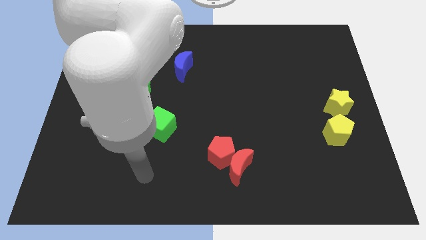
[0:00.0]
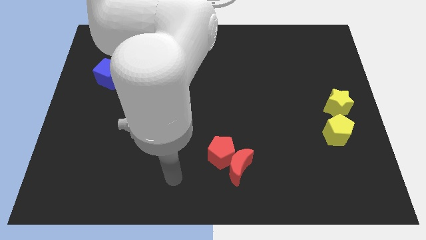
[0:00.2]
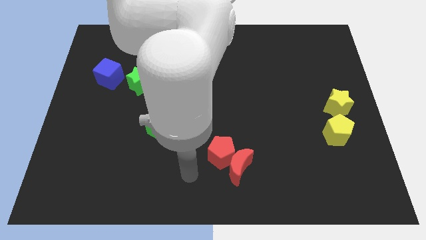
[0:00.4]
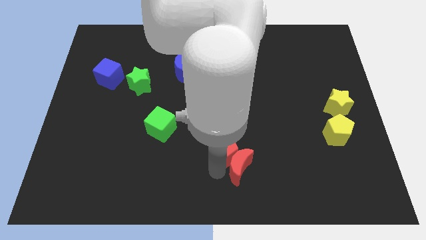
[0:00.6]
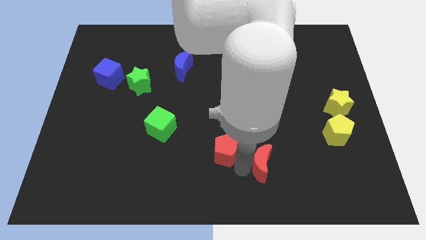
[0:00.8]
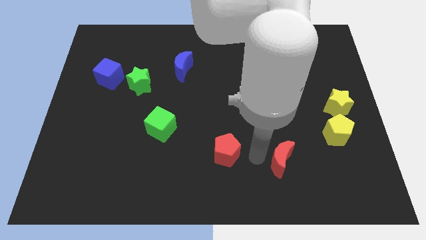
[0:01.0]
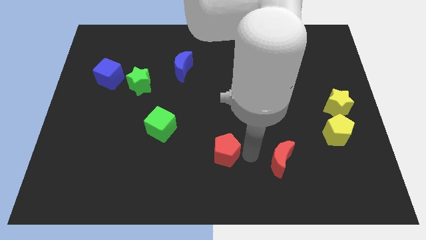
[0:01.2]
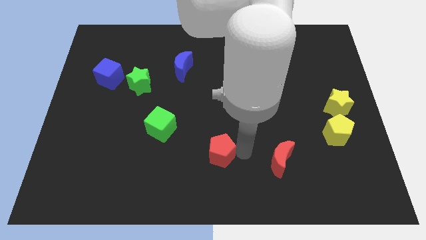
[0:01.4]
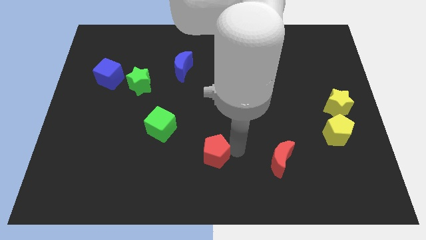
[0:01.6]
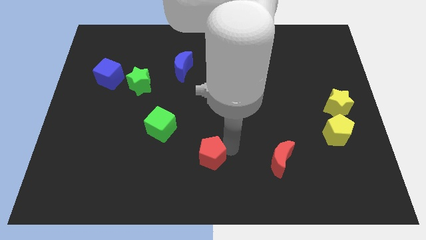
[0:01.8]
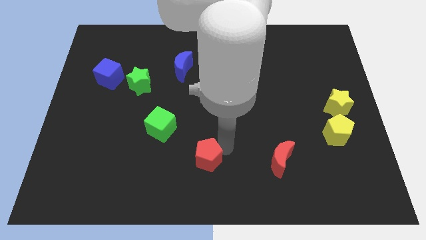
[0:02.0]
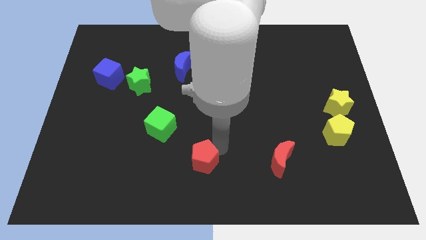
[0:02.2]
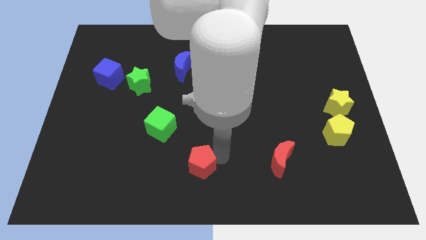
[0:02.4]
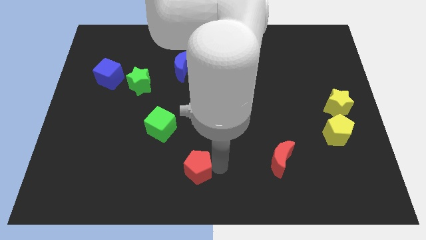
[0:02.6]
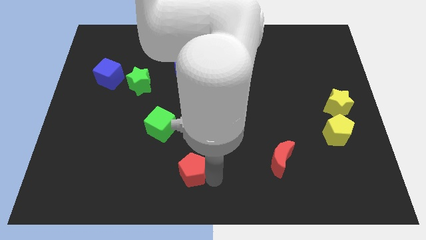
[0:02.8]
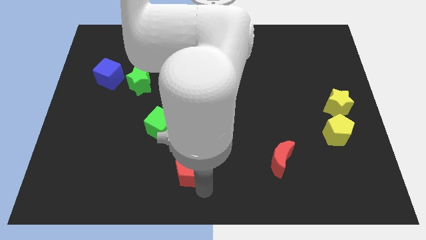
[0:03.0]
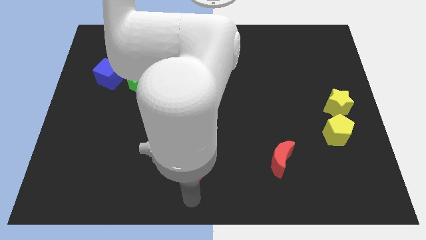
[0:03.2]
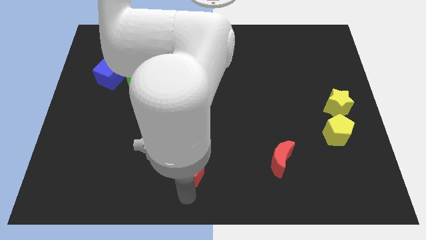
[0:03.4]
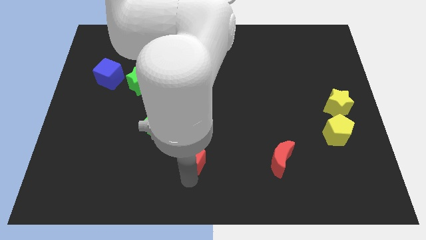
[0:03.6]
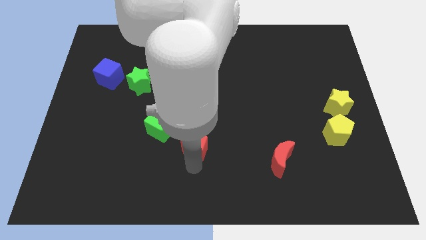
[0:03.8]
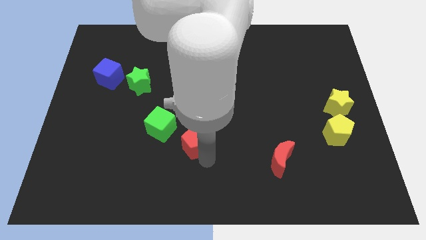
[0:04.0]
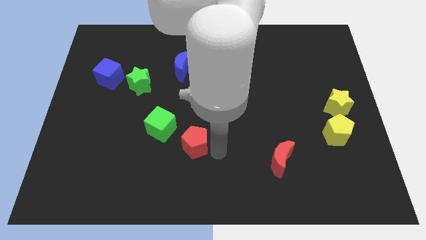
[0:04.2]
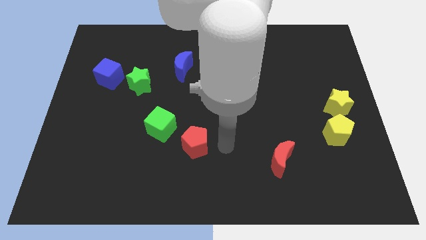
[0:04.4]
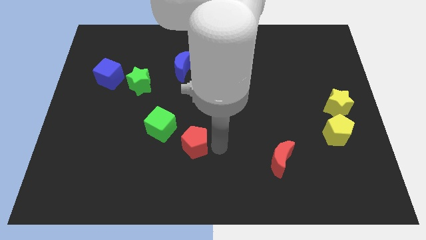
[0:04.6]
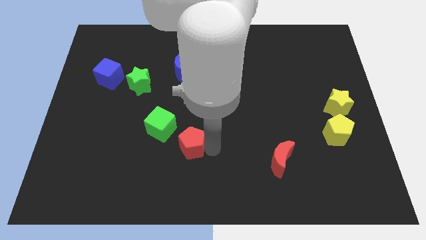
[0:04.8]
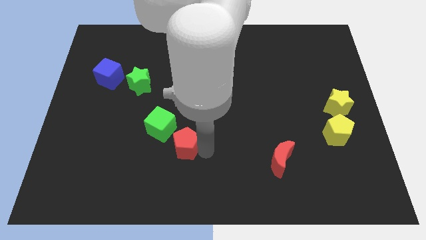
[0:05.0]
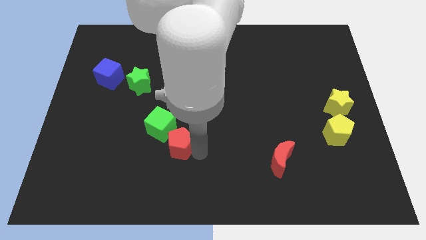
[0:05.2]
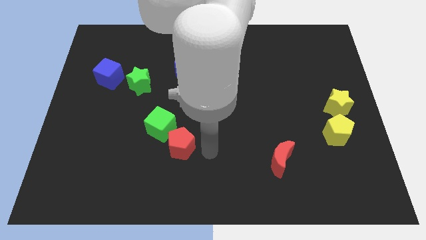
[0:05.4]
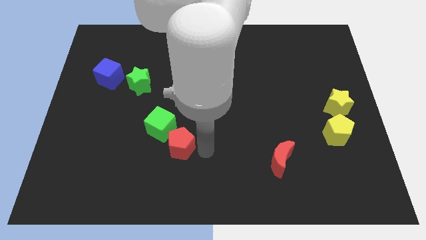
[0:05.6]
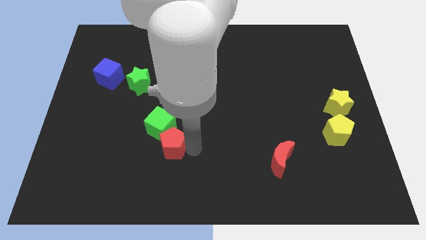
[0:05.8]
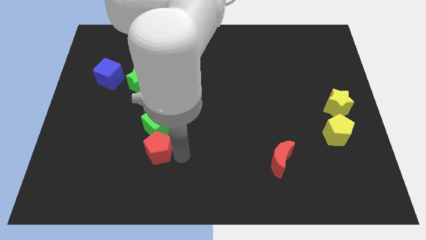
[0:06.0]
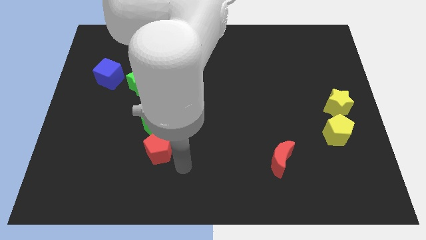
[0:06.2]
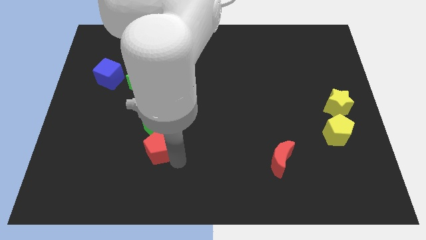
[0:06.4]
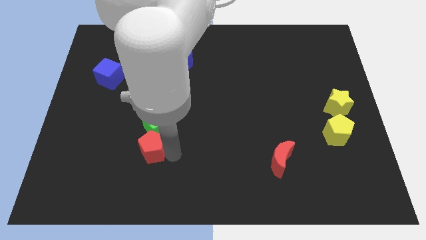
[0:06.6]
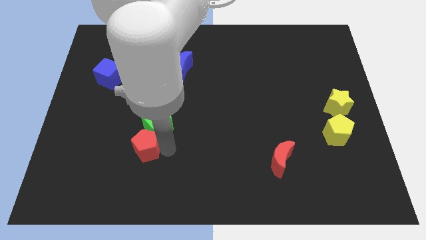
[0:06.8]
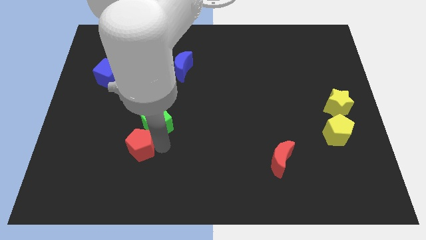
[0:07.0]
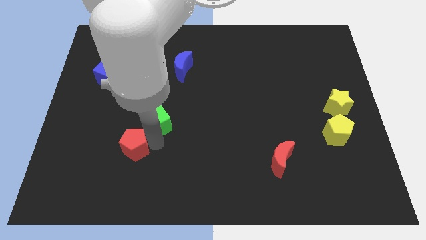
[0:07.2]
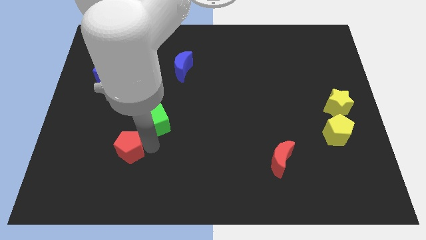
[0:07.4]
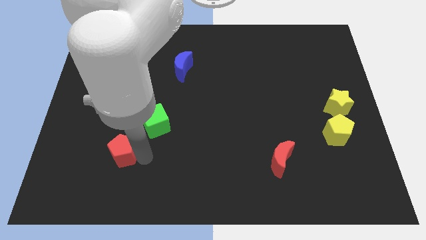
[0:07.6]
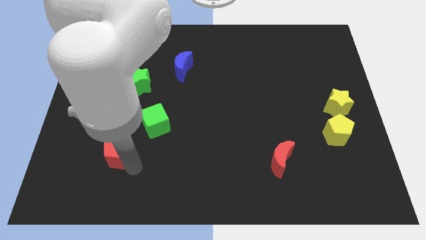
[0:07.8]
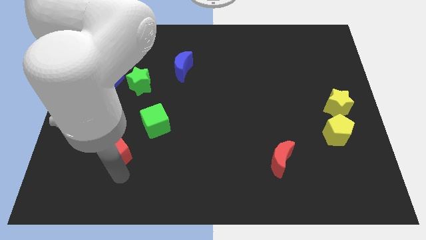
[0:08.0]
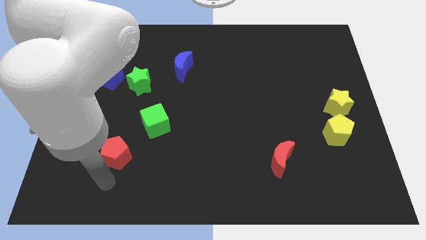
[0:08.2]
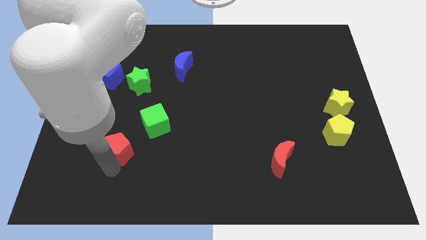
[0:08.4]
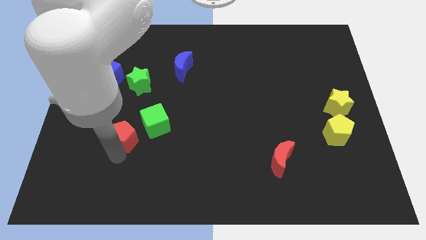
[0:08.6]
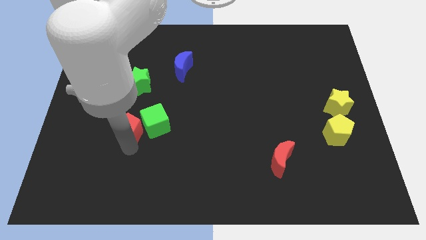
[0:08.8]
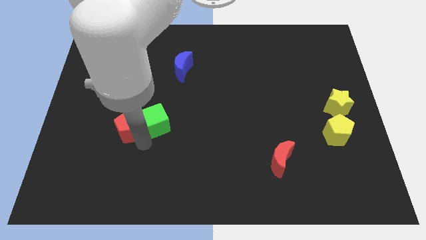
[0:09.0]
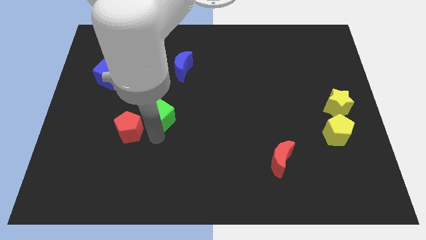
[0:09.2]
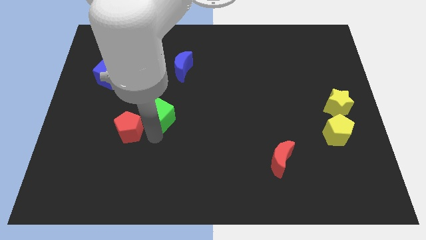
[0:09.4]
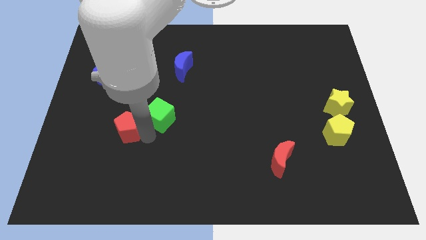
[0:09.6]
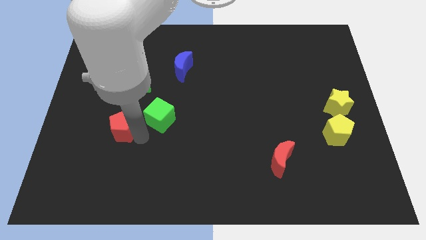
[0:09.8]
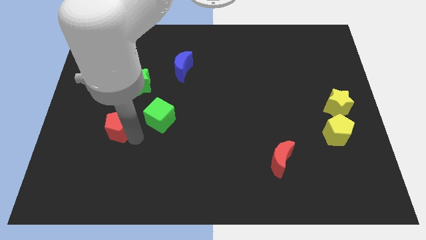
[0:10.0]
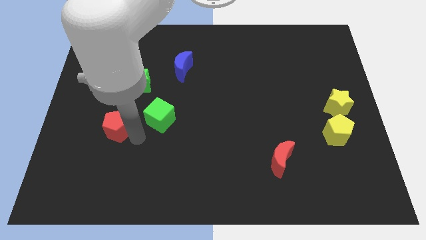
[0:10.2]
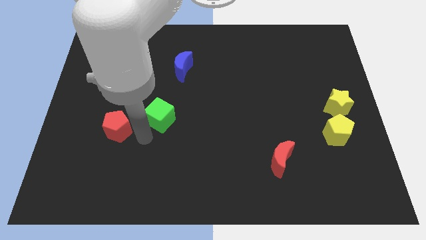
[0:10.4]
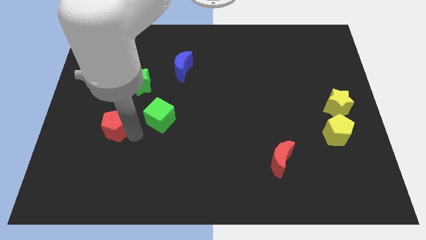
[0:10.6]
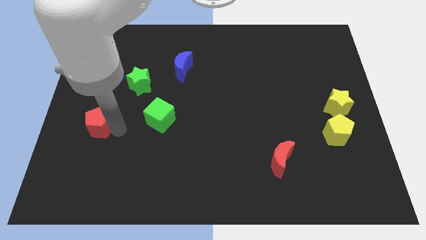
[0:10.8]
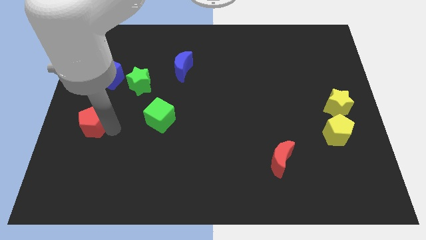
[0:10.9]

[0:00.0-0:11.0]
move the red pentagon to the left side
